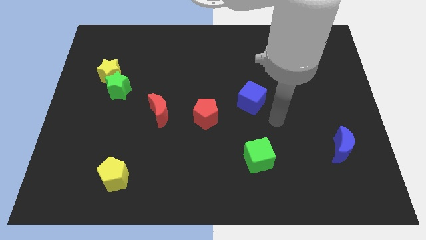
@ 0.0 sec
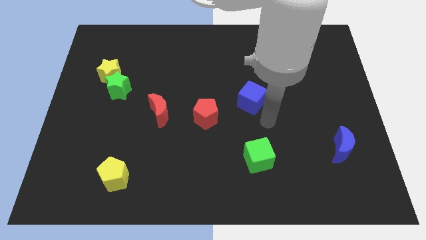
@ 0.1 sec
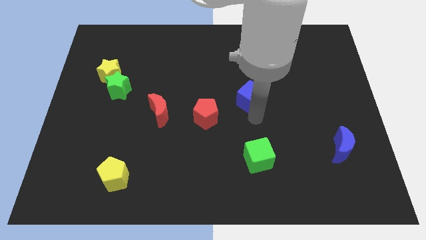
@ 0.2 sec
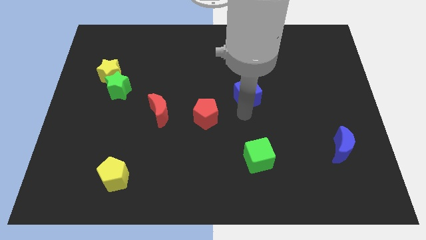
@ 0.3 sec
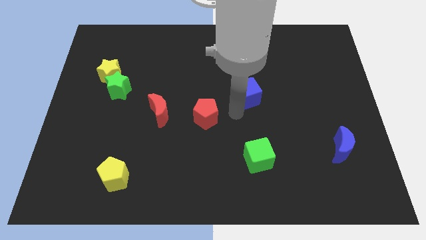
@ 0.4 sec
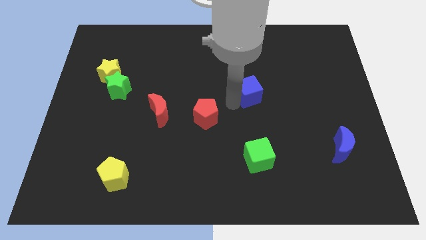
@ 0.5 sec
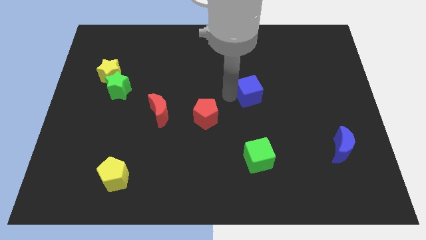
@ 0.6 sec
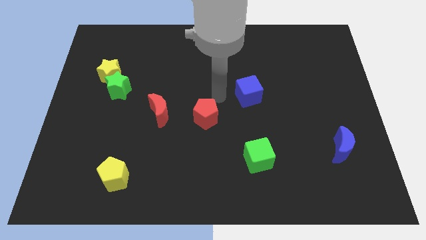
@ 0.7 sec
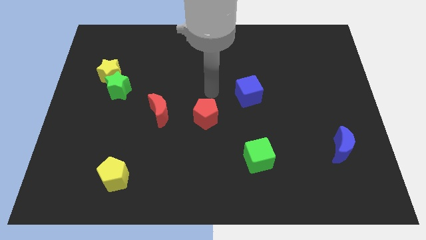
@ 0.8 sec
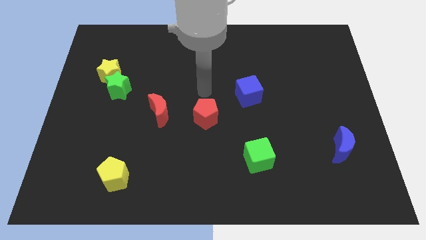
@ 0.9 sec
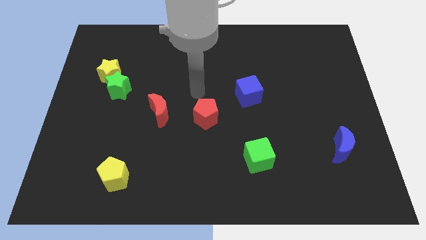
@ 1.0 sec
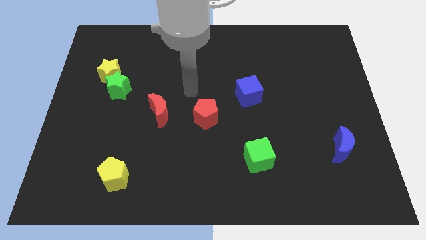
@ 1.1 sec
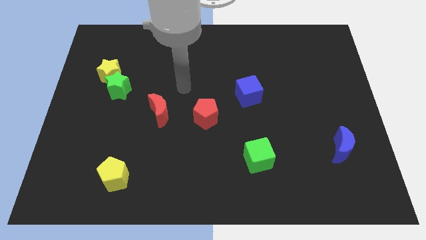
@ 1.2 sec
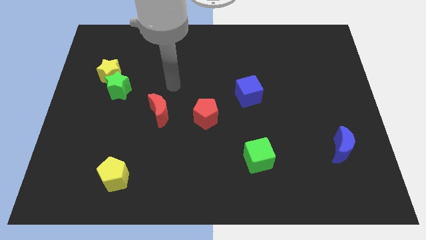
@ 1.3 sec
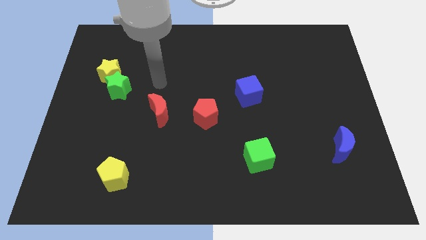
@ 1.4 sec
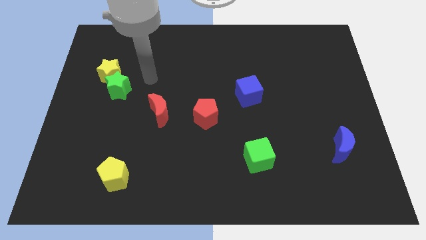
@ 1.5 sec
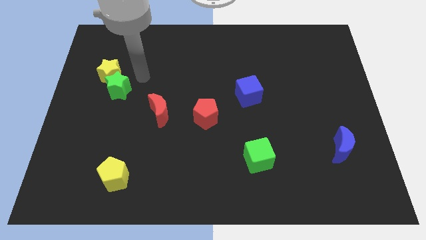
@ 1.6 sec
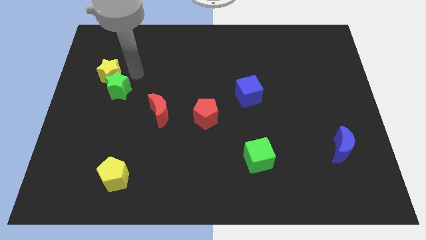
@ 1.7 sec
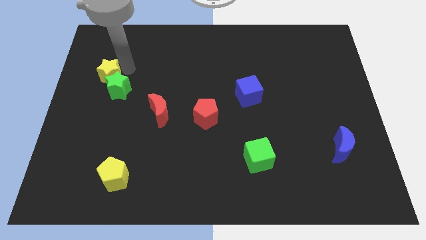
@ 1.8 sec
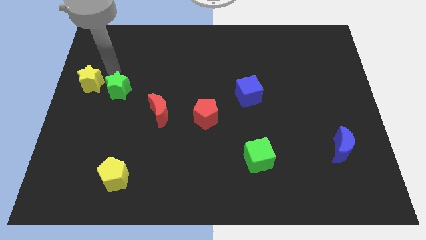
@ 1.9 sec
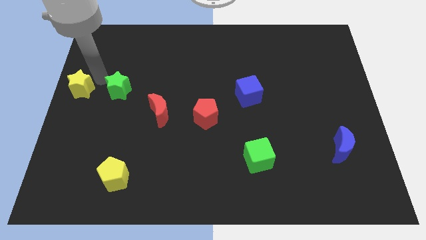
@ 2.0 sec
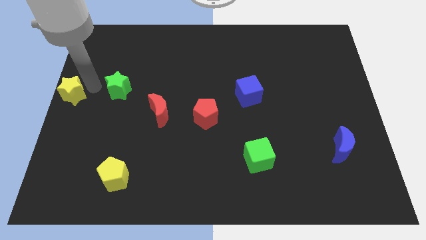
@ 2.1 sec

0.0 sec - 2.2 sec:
move the green star away from the yellow star

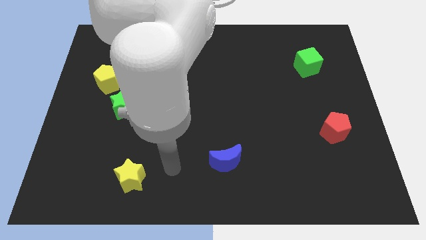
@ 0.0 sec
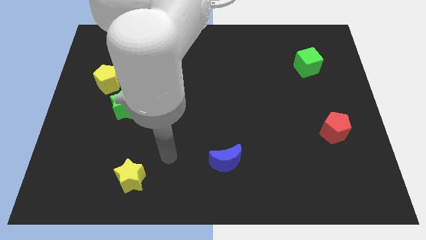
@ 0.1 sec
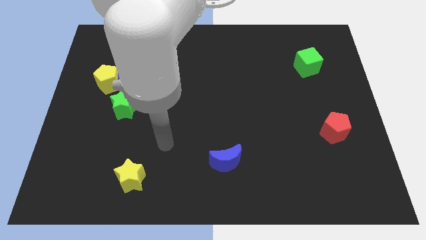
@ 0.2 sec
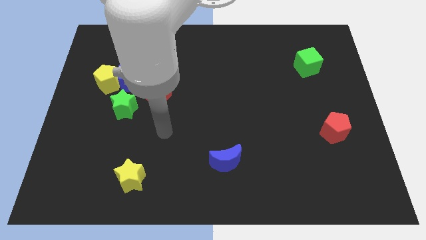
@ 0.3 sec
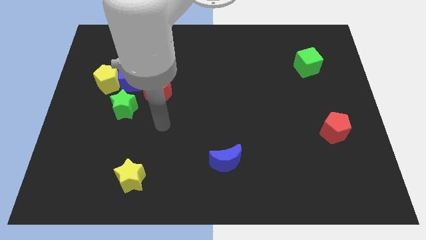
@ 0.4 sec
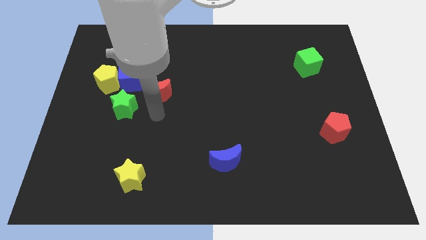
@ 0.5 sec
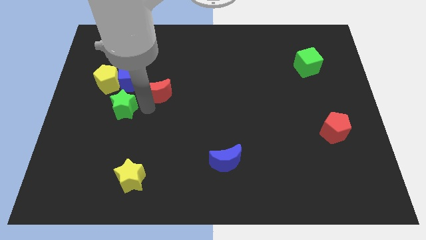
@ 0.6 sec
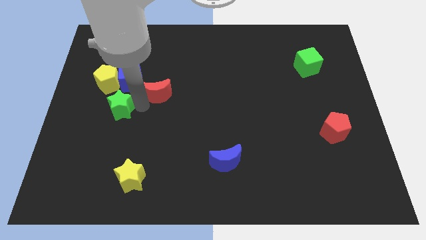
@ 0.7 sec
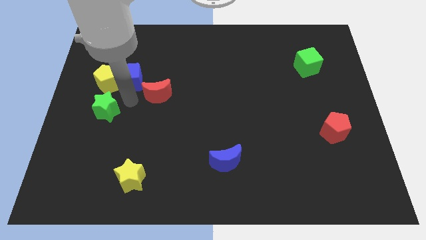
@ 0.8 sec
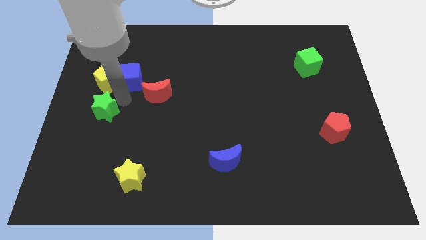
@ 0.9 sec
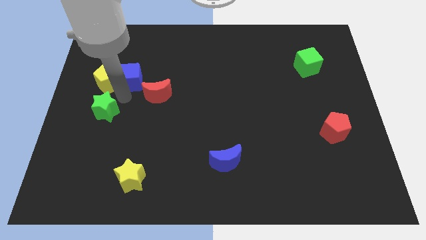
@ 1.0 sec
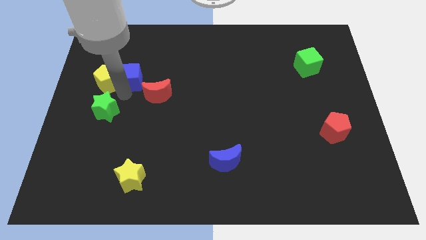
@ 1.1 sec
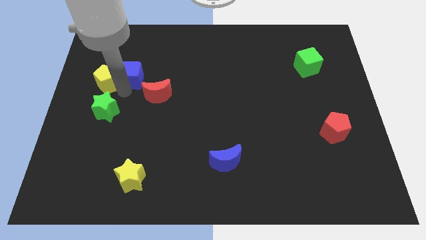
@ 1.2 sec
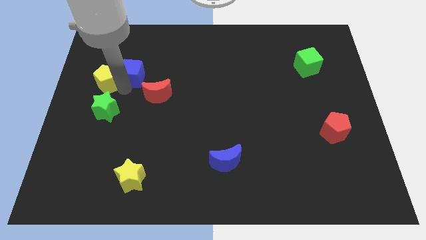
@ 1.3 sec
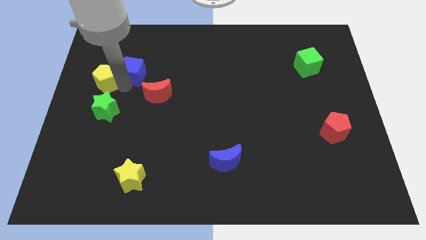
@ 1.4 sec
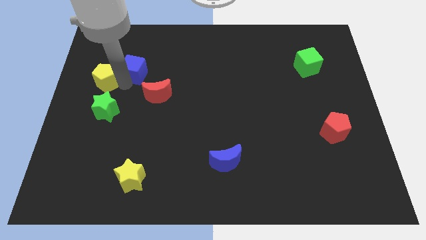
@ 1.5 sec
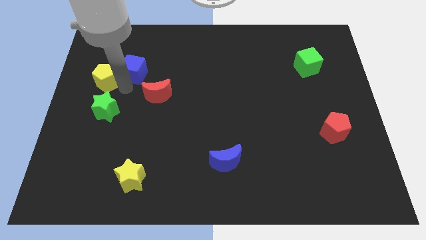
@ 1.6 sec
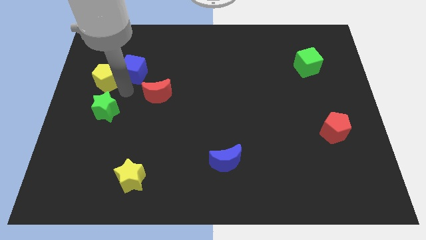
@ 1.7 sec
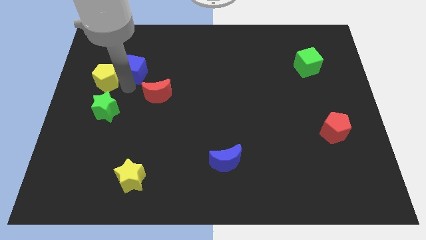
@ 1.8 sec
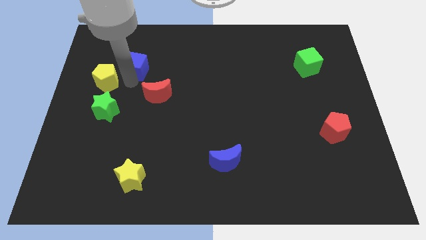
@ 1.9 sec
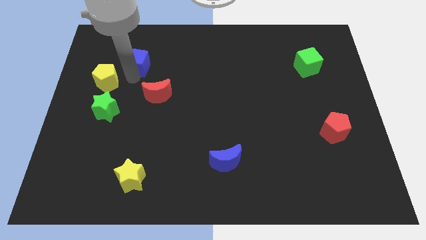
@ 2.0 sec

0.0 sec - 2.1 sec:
separate the blue cube from the yellow pentagon, red moon, and green star

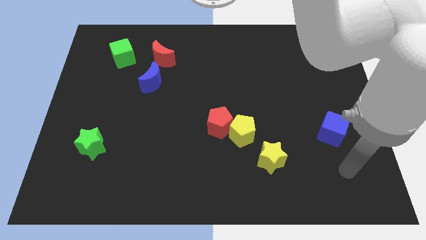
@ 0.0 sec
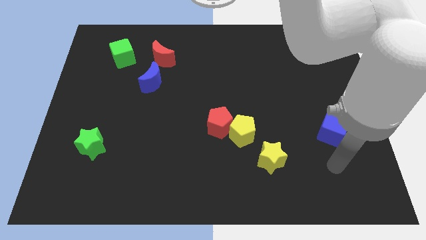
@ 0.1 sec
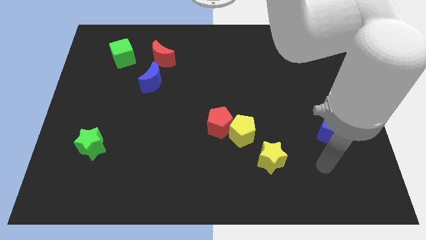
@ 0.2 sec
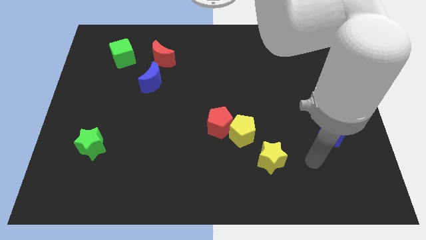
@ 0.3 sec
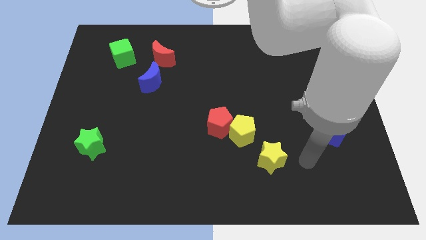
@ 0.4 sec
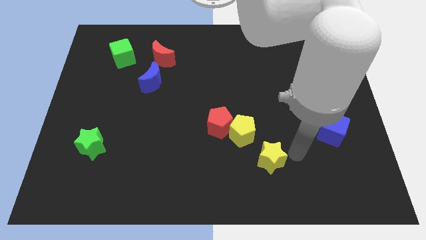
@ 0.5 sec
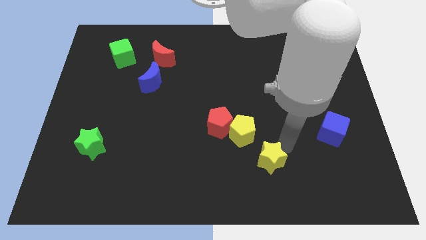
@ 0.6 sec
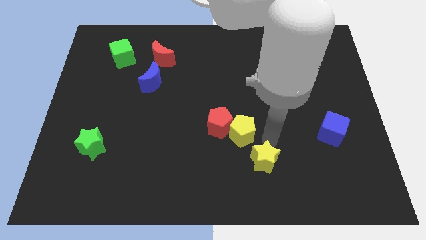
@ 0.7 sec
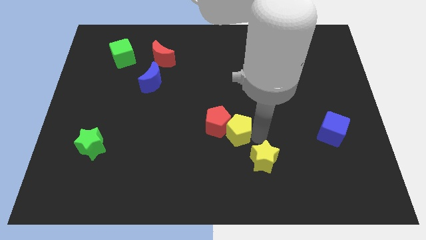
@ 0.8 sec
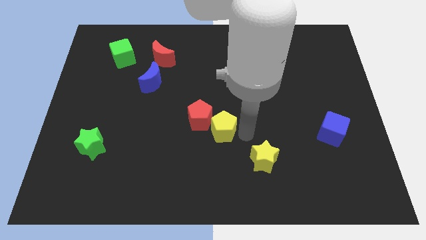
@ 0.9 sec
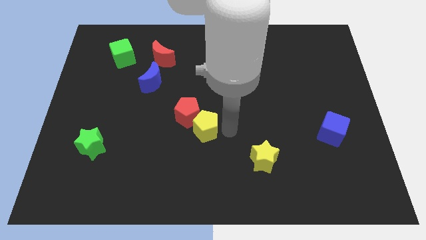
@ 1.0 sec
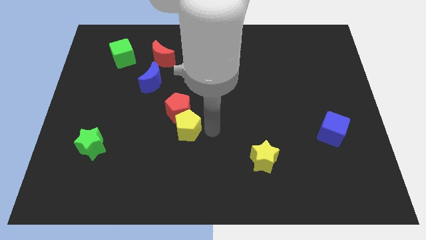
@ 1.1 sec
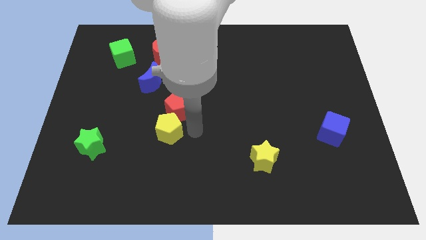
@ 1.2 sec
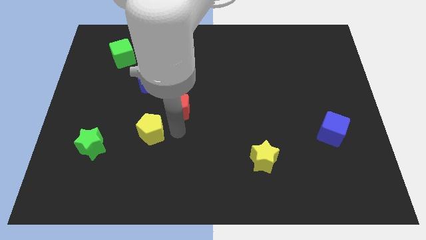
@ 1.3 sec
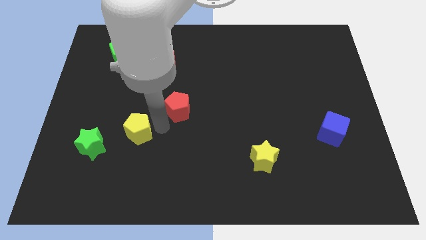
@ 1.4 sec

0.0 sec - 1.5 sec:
pull the red pentagon apart from the yellow pentagon

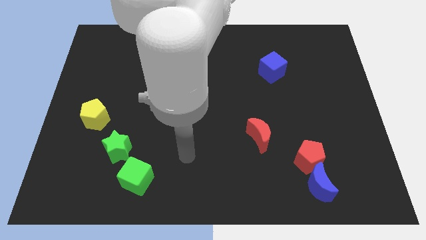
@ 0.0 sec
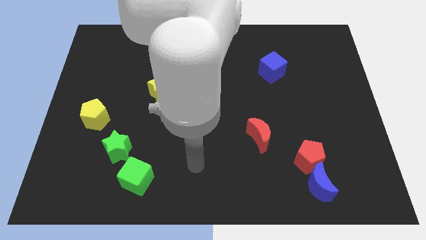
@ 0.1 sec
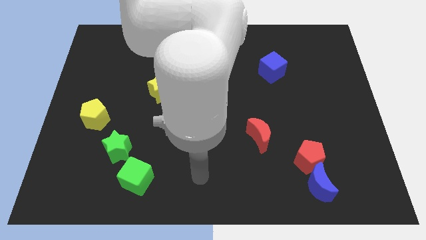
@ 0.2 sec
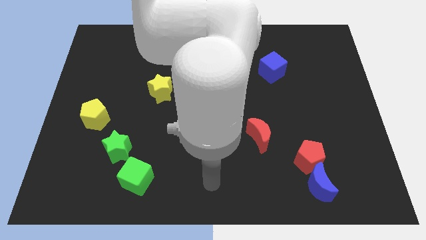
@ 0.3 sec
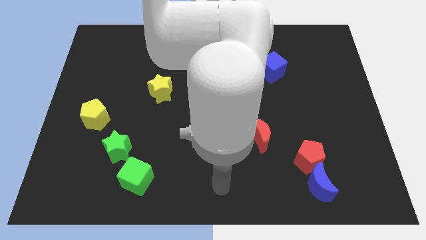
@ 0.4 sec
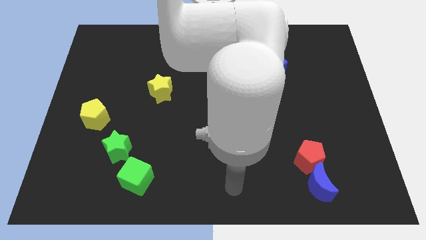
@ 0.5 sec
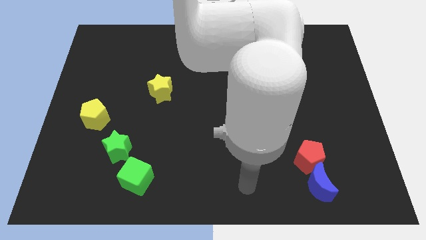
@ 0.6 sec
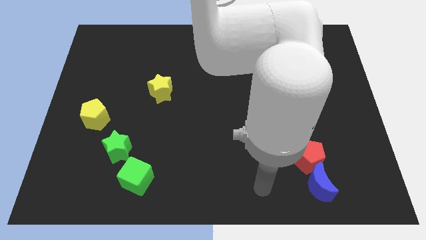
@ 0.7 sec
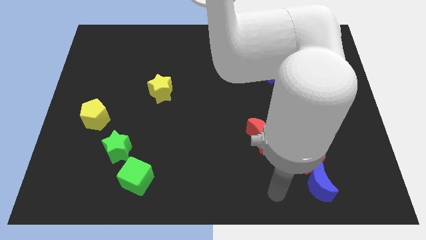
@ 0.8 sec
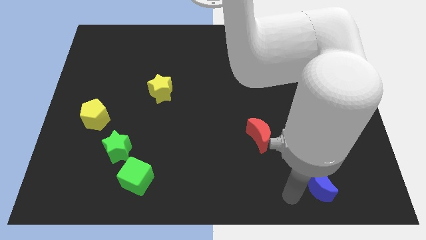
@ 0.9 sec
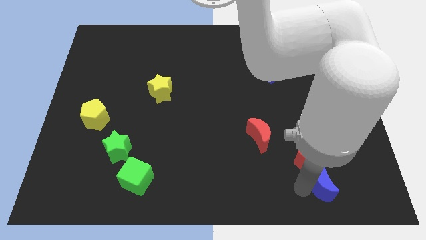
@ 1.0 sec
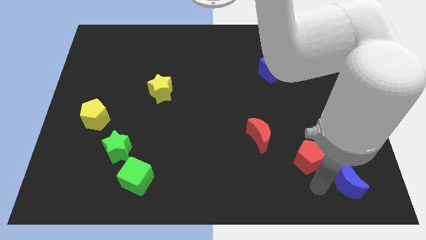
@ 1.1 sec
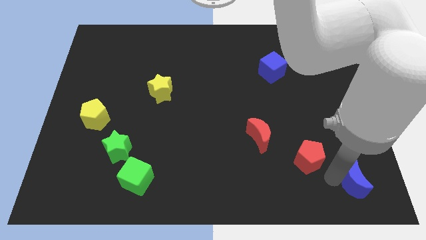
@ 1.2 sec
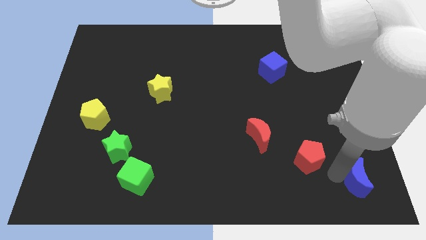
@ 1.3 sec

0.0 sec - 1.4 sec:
pull the red pentagon apart from the blue moon

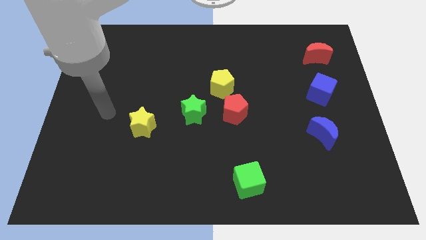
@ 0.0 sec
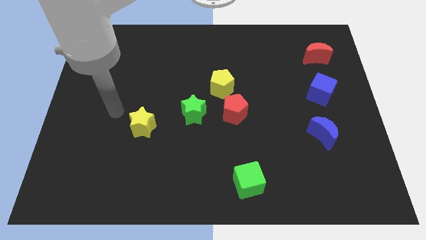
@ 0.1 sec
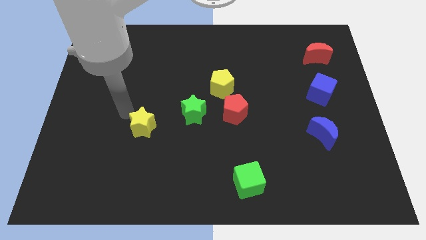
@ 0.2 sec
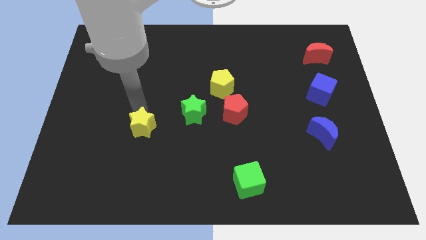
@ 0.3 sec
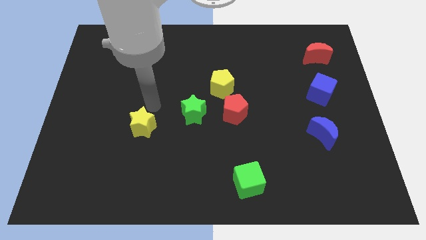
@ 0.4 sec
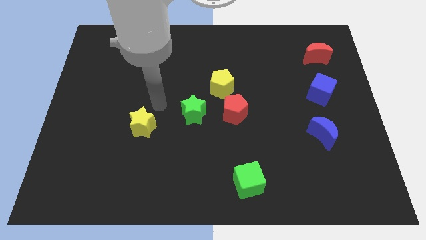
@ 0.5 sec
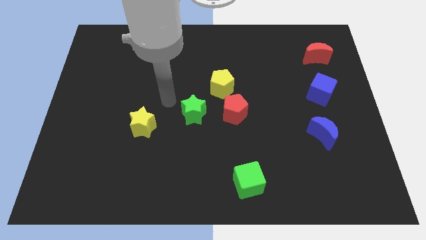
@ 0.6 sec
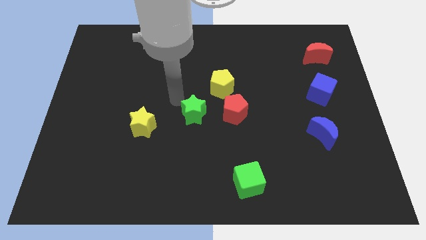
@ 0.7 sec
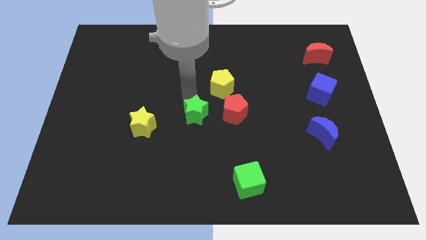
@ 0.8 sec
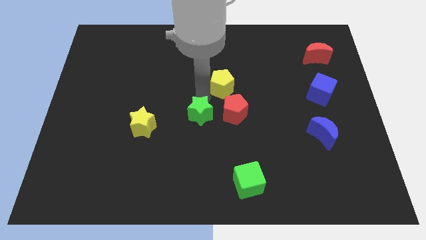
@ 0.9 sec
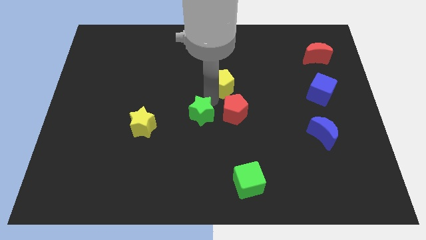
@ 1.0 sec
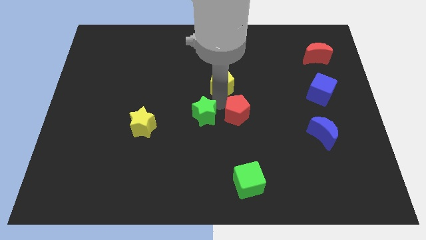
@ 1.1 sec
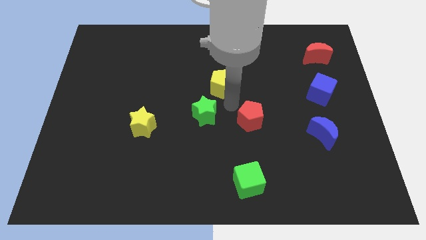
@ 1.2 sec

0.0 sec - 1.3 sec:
move the yellow pentagon away from the red pentagon

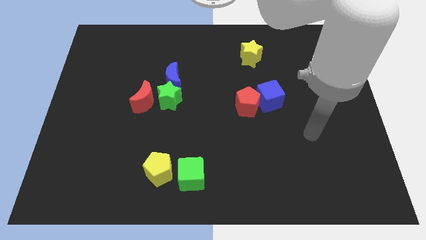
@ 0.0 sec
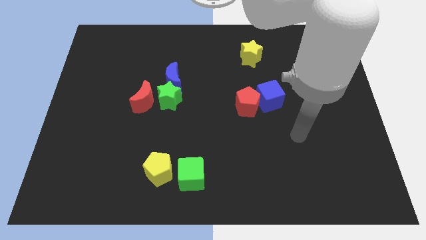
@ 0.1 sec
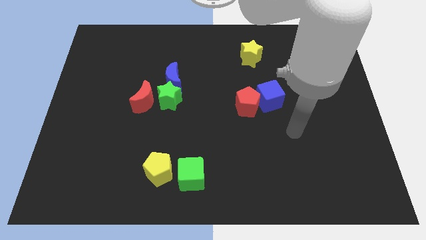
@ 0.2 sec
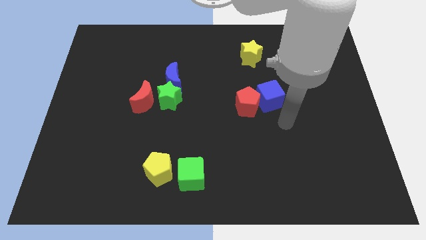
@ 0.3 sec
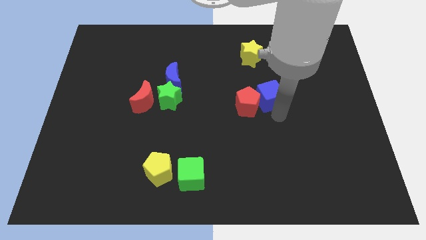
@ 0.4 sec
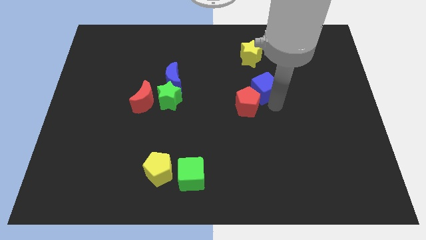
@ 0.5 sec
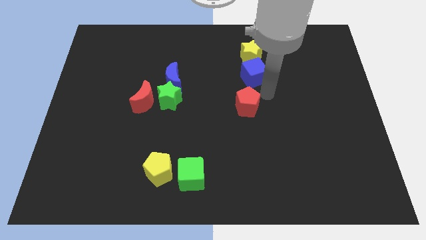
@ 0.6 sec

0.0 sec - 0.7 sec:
separate the red pentagon from the blue cube
